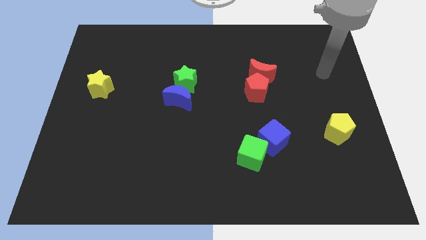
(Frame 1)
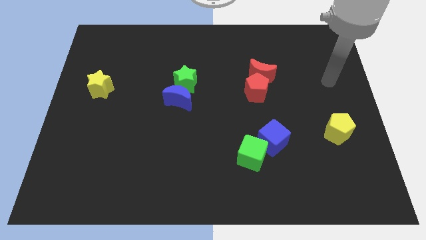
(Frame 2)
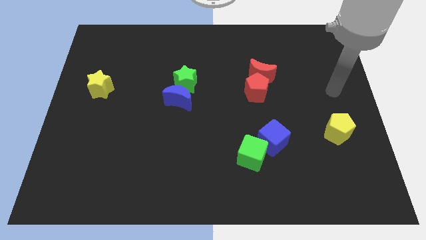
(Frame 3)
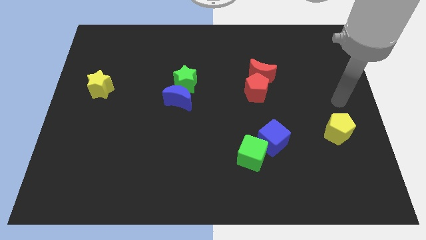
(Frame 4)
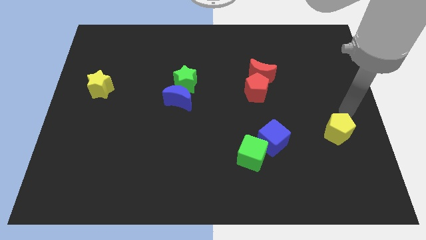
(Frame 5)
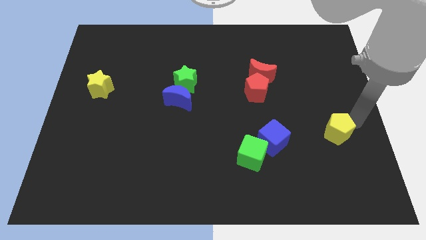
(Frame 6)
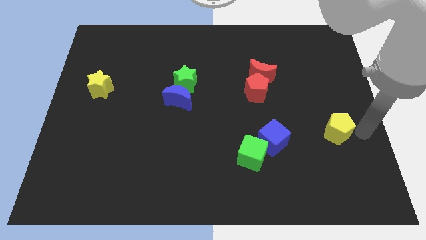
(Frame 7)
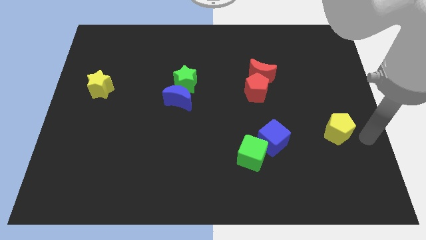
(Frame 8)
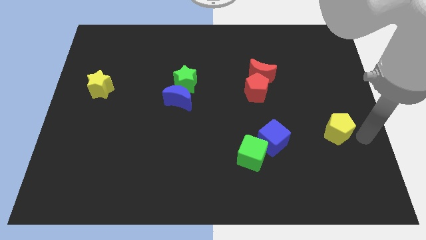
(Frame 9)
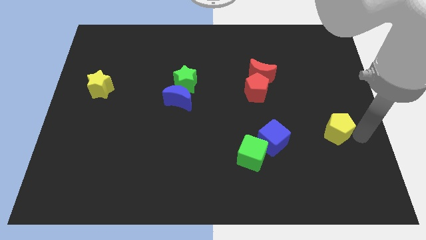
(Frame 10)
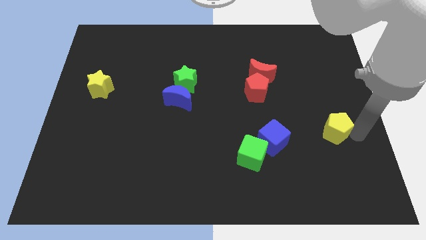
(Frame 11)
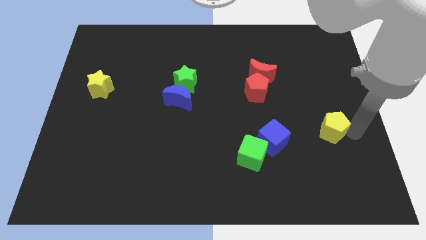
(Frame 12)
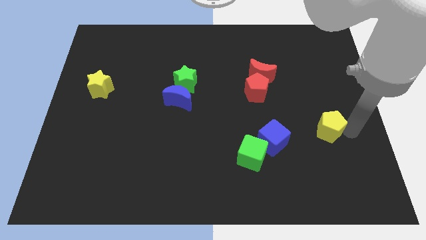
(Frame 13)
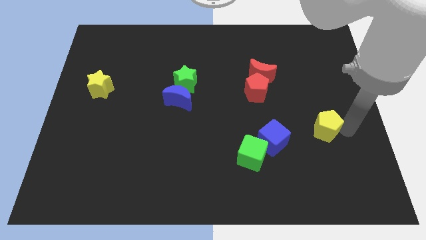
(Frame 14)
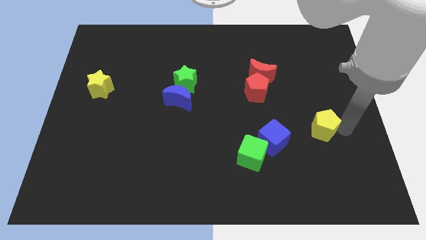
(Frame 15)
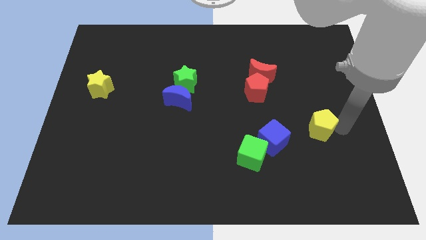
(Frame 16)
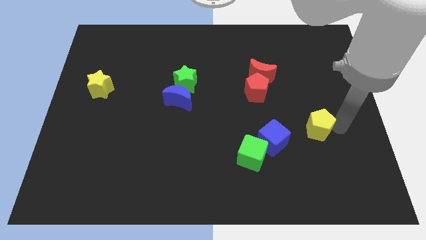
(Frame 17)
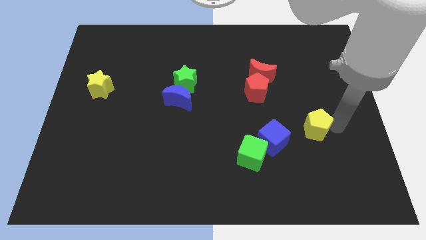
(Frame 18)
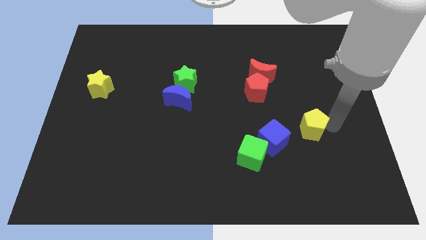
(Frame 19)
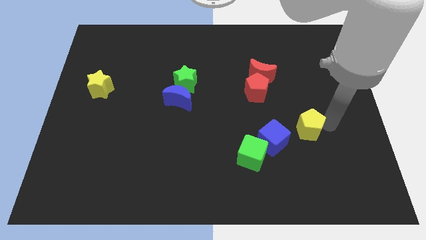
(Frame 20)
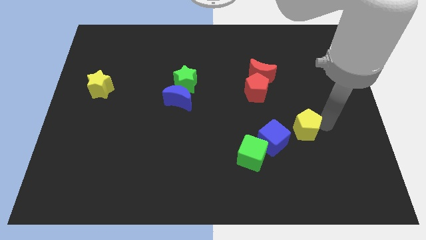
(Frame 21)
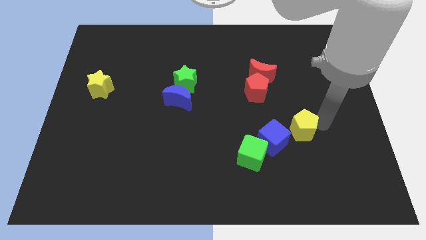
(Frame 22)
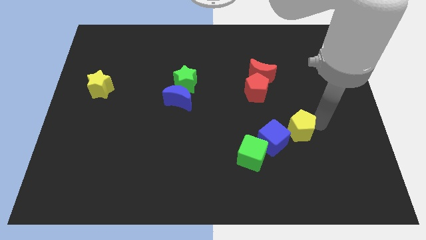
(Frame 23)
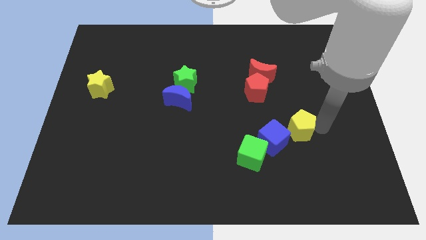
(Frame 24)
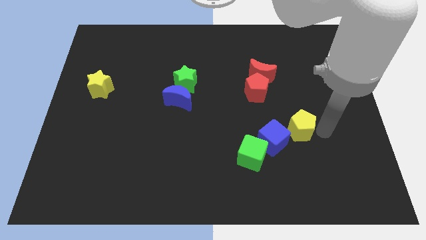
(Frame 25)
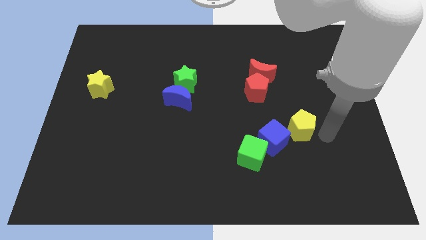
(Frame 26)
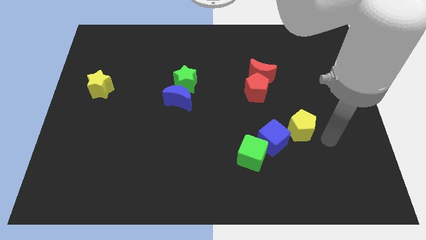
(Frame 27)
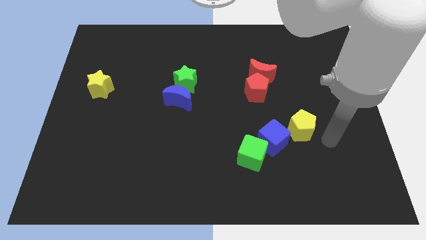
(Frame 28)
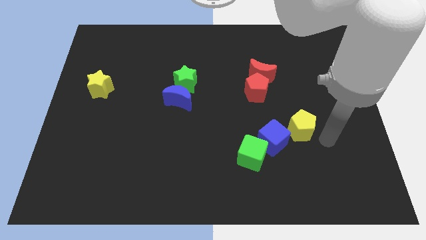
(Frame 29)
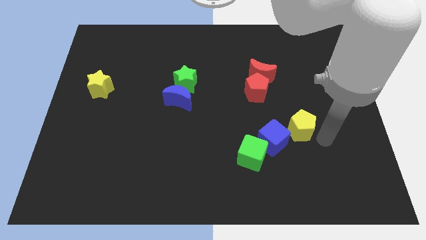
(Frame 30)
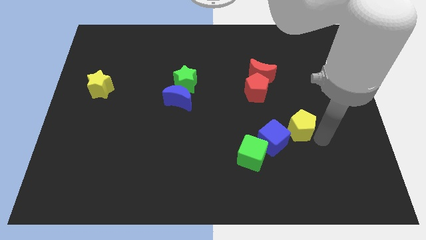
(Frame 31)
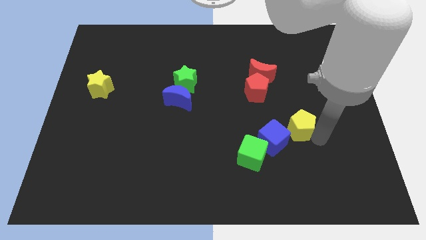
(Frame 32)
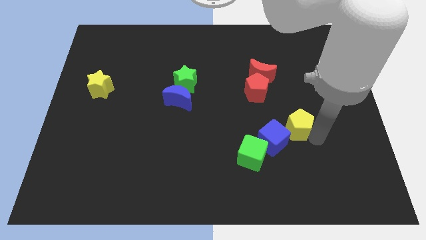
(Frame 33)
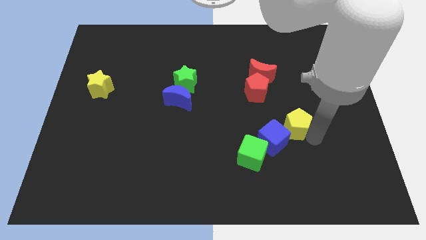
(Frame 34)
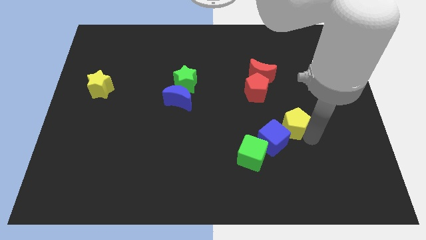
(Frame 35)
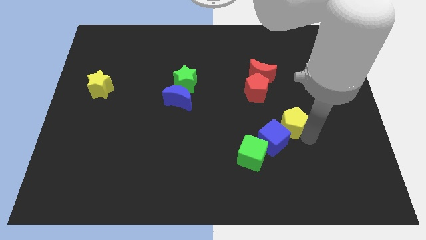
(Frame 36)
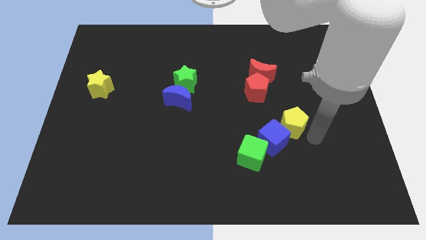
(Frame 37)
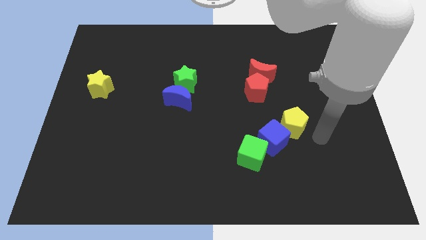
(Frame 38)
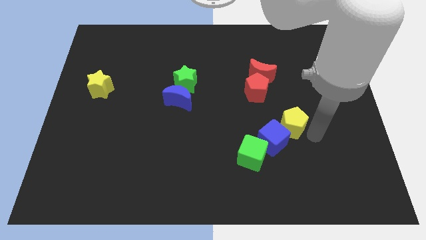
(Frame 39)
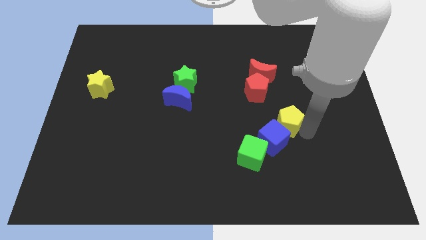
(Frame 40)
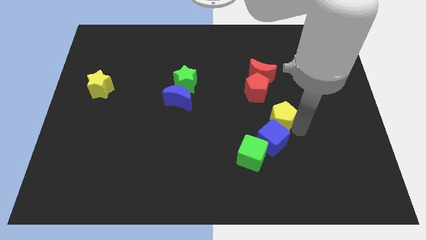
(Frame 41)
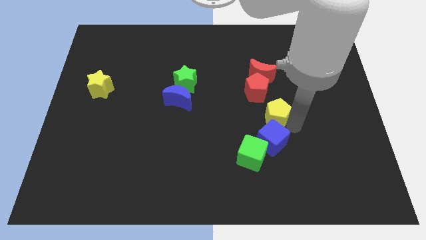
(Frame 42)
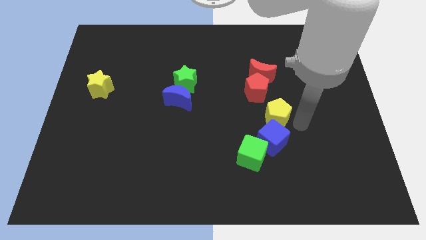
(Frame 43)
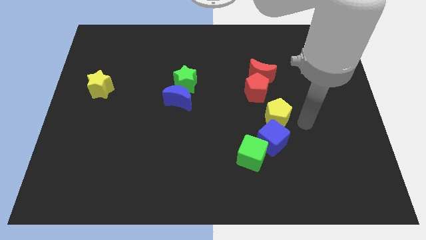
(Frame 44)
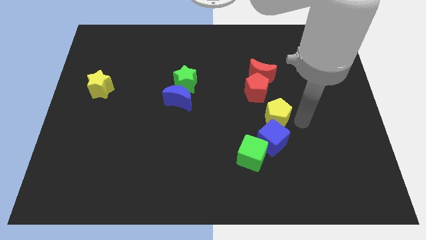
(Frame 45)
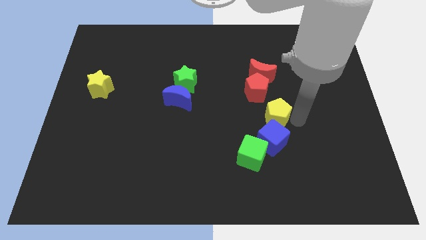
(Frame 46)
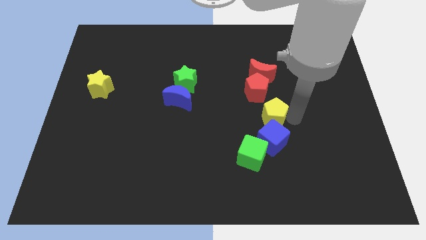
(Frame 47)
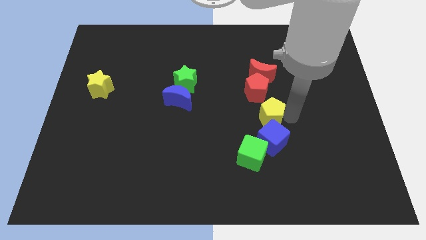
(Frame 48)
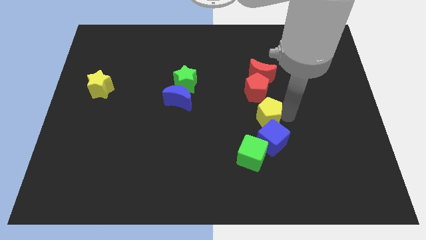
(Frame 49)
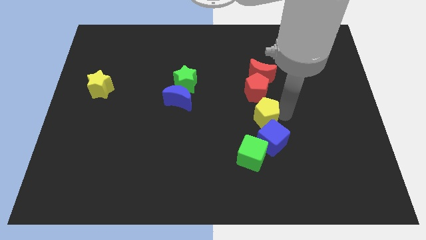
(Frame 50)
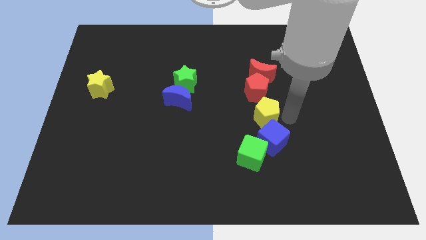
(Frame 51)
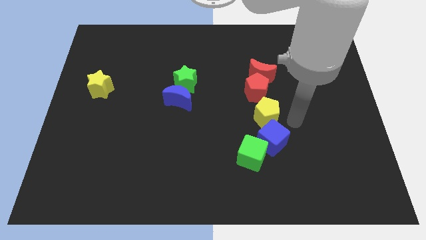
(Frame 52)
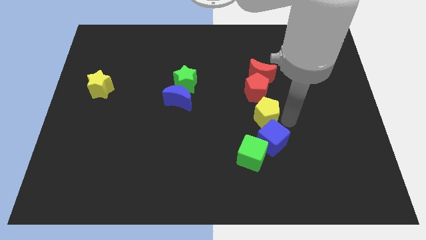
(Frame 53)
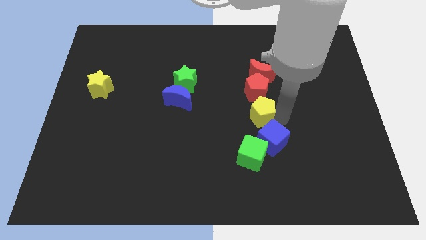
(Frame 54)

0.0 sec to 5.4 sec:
push the yellow pentagon to the middle

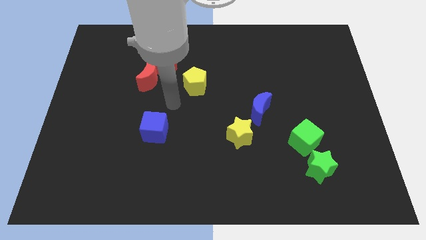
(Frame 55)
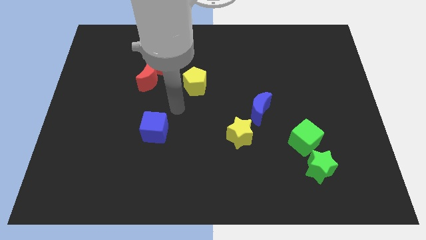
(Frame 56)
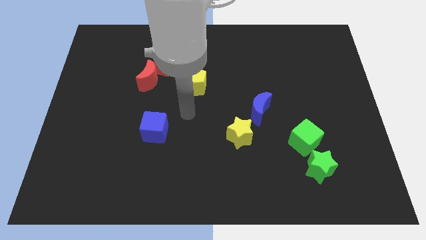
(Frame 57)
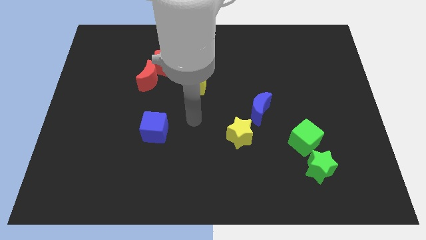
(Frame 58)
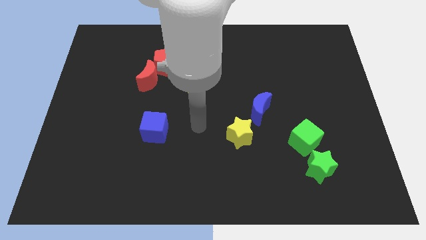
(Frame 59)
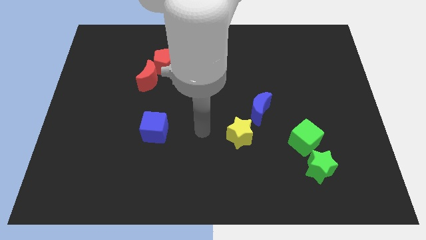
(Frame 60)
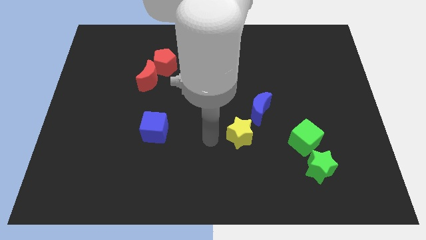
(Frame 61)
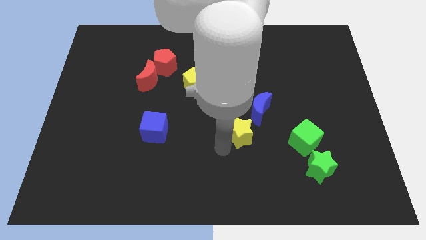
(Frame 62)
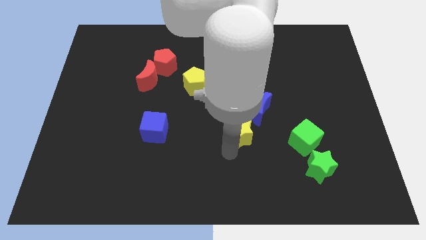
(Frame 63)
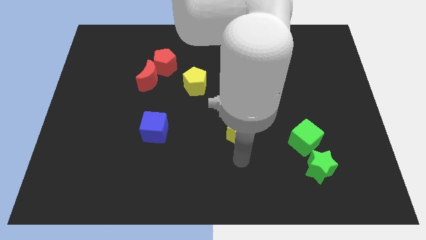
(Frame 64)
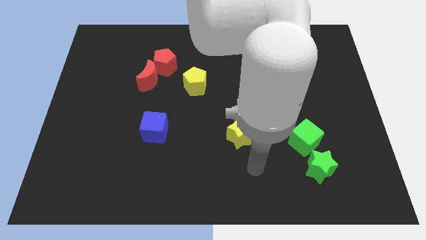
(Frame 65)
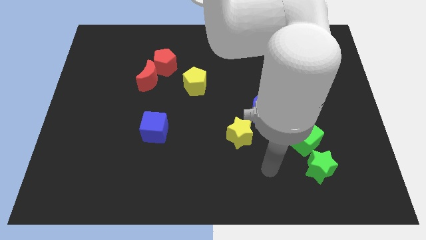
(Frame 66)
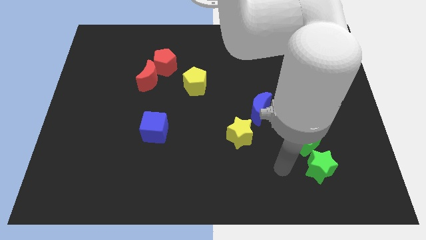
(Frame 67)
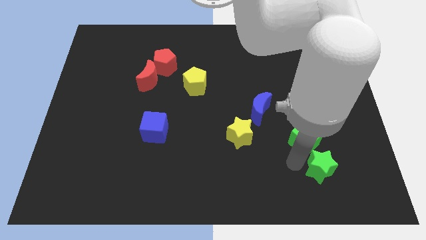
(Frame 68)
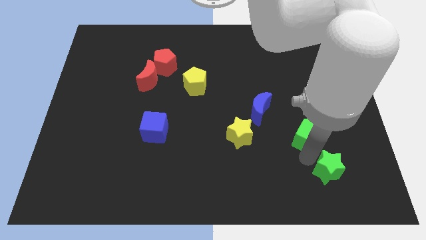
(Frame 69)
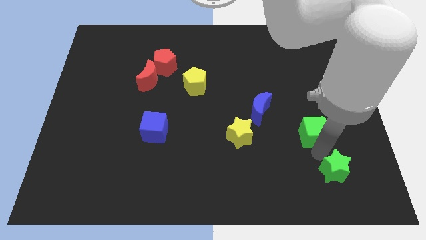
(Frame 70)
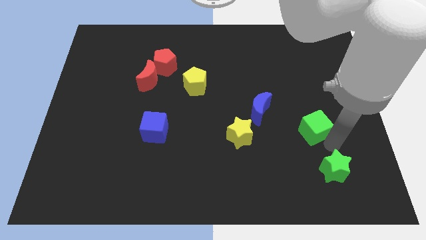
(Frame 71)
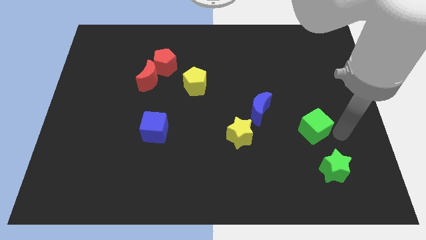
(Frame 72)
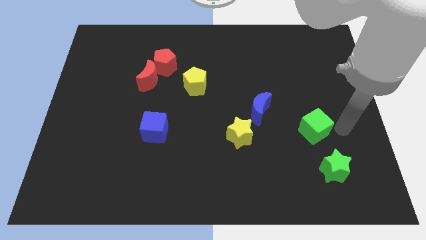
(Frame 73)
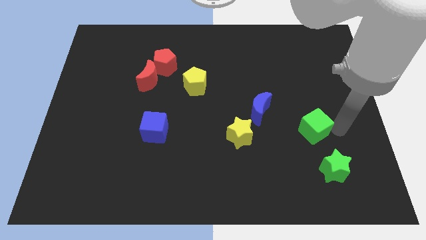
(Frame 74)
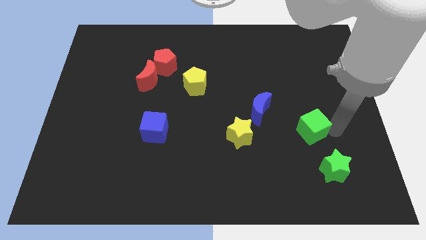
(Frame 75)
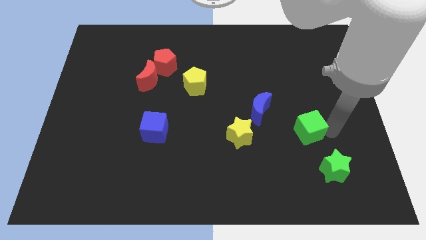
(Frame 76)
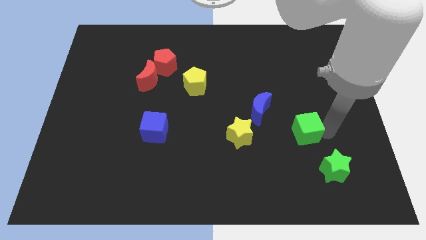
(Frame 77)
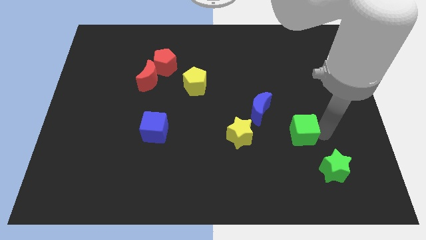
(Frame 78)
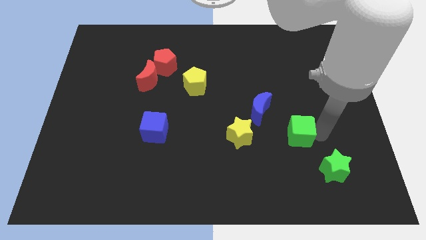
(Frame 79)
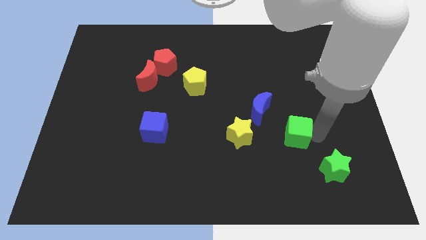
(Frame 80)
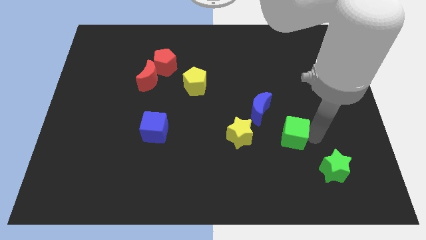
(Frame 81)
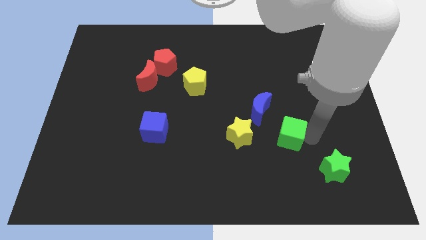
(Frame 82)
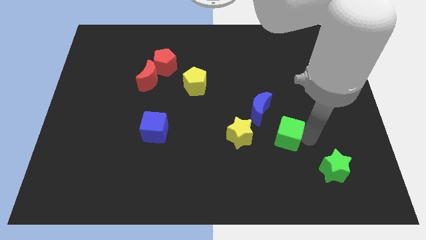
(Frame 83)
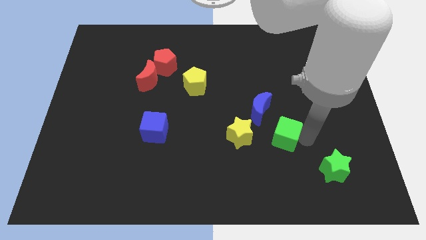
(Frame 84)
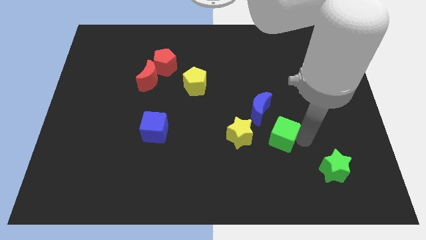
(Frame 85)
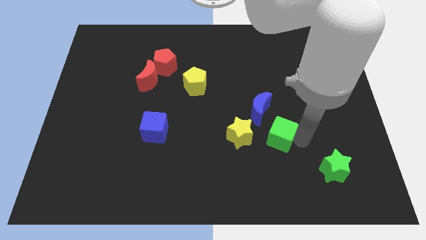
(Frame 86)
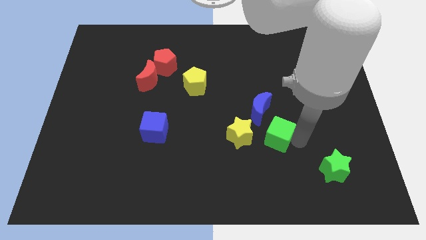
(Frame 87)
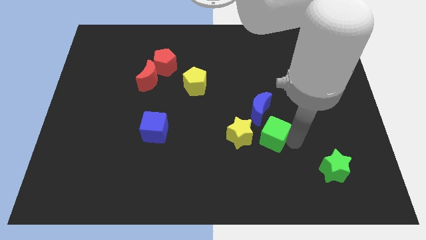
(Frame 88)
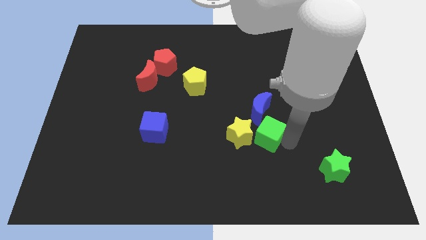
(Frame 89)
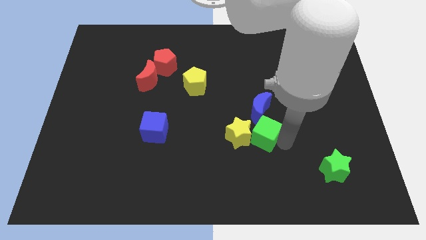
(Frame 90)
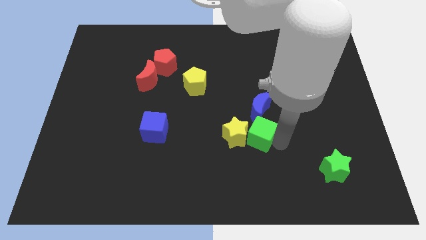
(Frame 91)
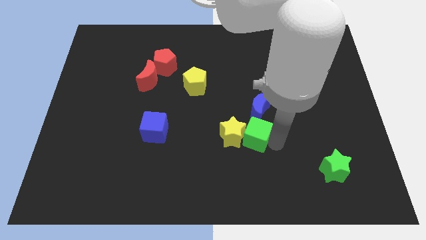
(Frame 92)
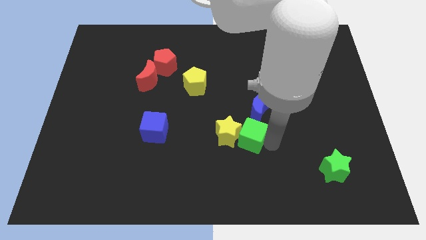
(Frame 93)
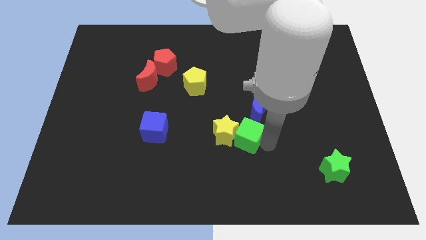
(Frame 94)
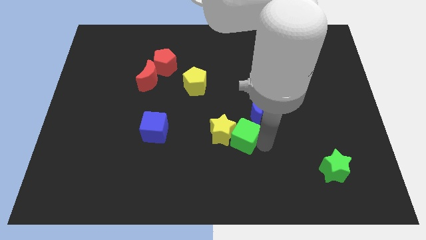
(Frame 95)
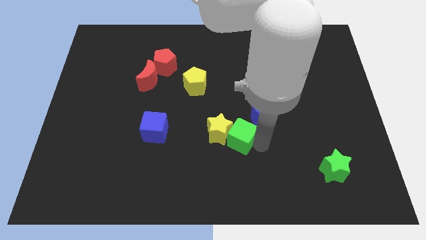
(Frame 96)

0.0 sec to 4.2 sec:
put the green cube to the center of the board
